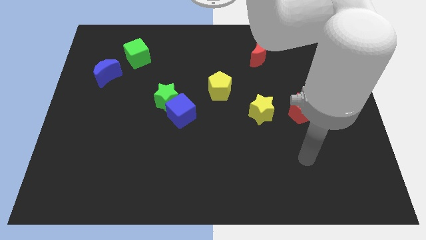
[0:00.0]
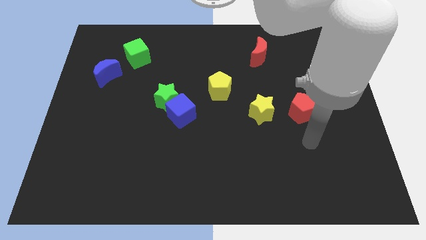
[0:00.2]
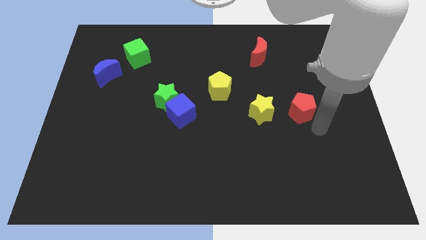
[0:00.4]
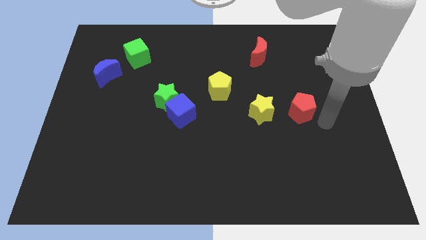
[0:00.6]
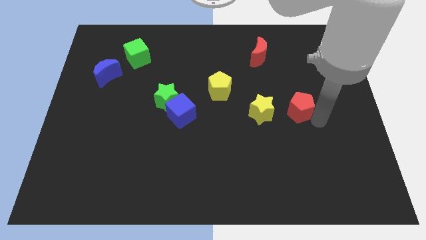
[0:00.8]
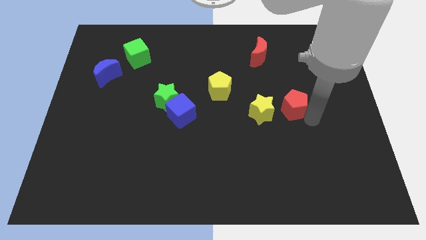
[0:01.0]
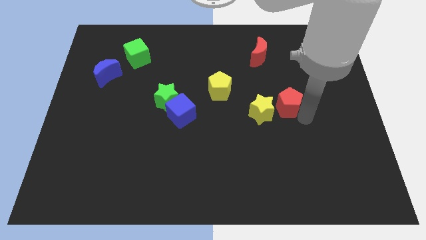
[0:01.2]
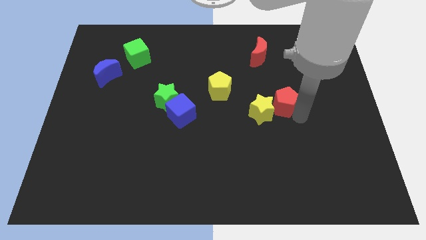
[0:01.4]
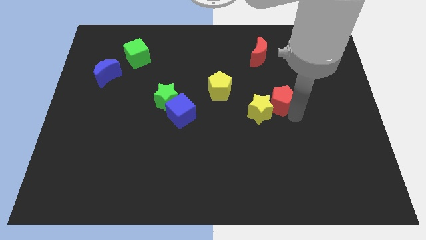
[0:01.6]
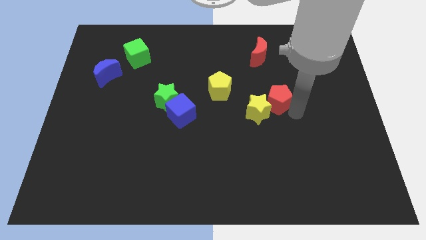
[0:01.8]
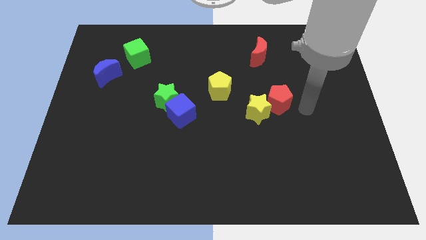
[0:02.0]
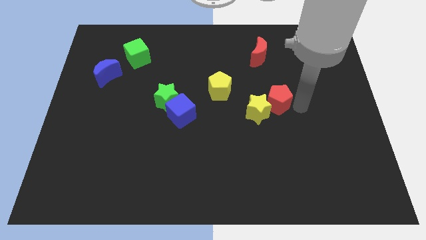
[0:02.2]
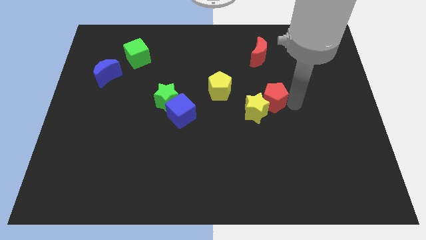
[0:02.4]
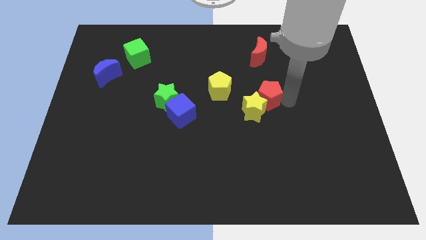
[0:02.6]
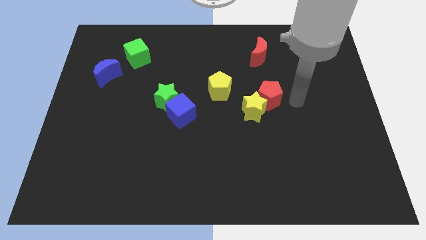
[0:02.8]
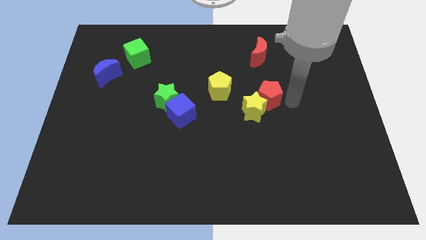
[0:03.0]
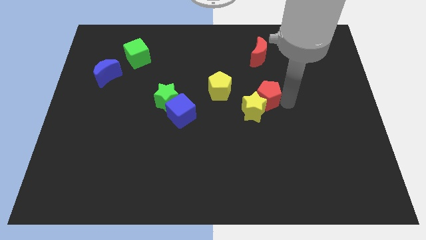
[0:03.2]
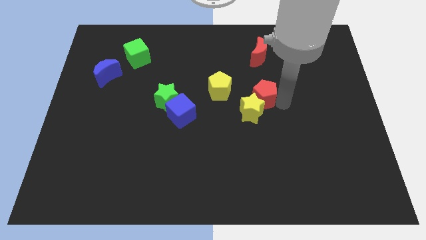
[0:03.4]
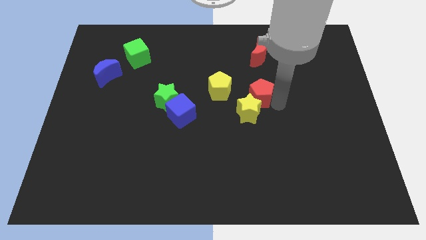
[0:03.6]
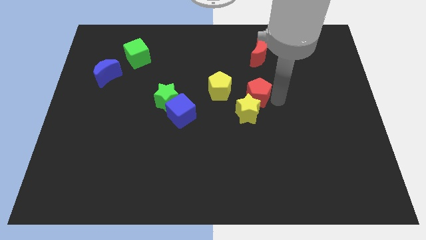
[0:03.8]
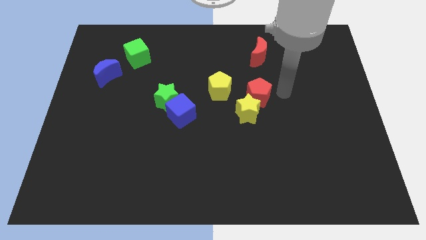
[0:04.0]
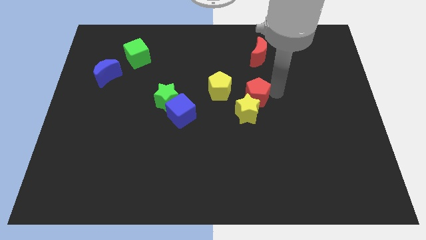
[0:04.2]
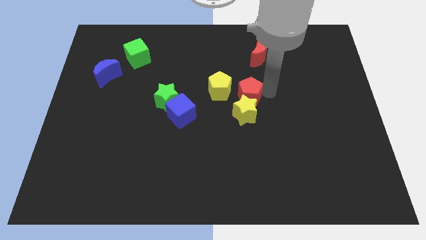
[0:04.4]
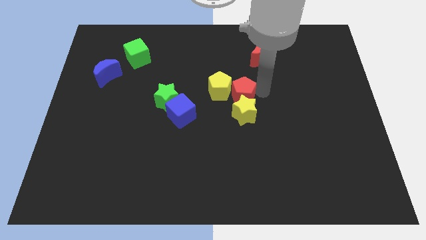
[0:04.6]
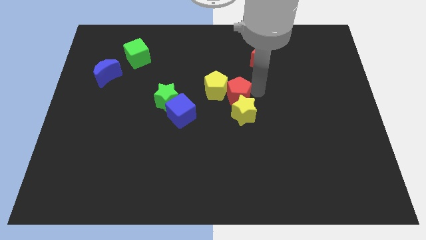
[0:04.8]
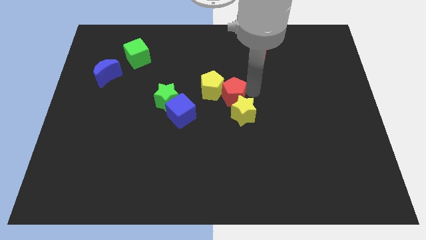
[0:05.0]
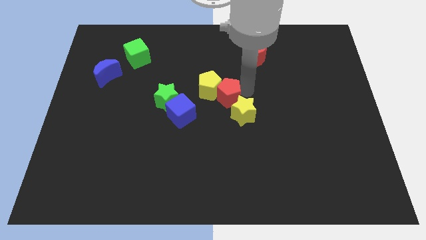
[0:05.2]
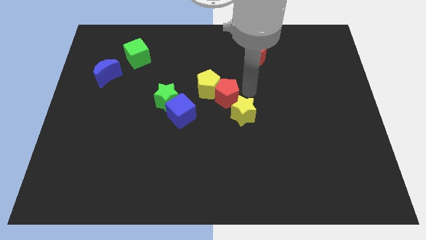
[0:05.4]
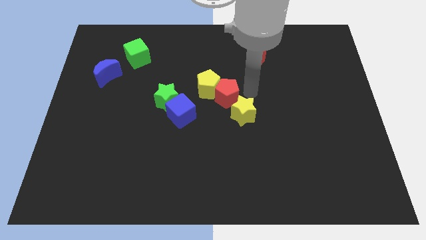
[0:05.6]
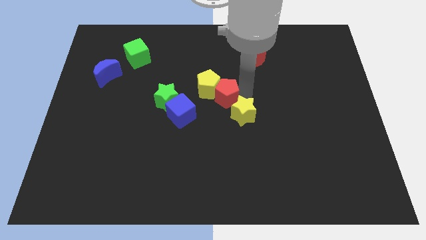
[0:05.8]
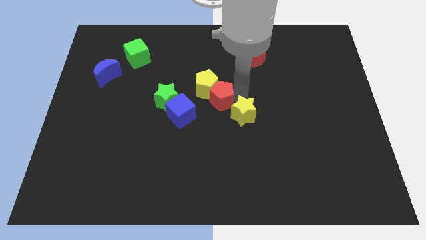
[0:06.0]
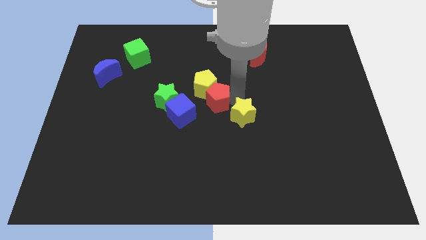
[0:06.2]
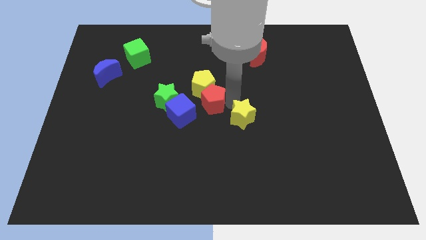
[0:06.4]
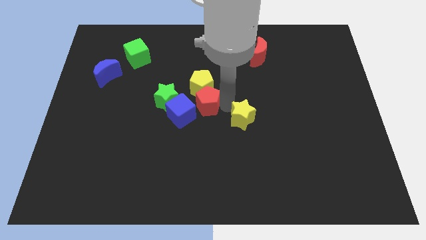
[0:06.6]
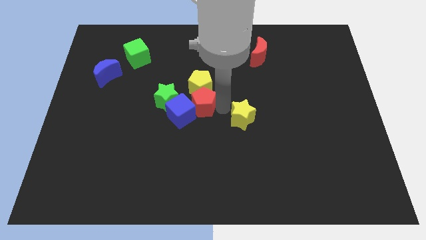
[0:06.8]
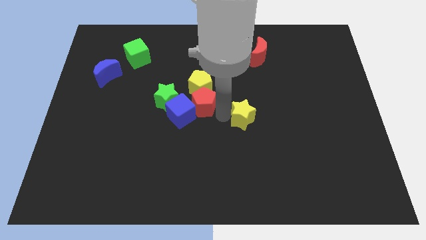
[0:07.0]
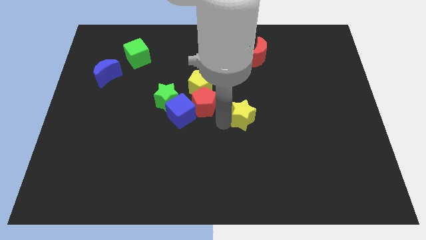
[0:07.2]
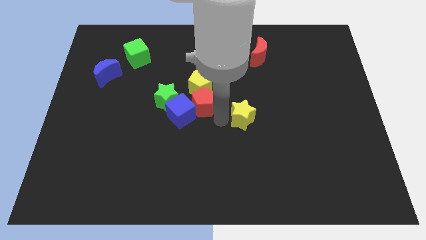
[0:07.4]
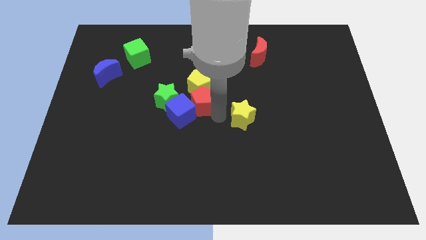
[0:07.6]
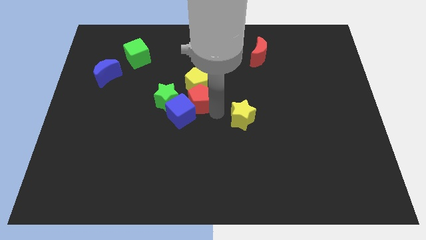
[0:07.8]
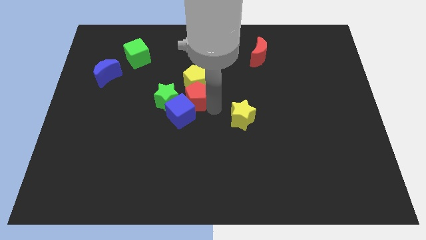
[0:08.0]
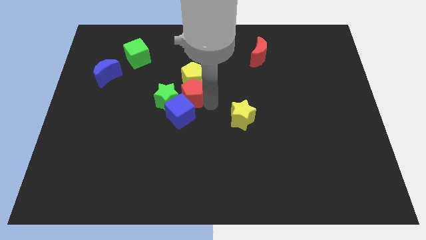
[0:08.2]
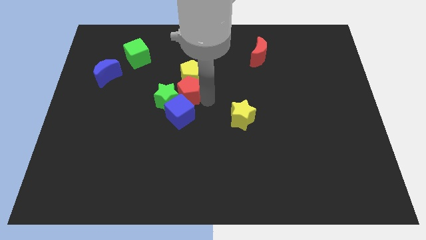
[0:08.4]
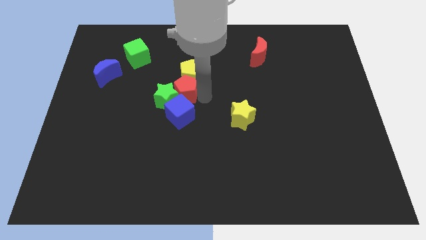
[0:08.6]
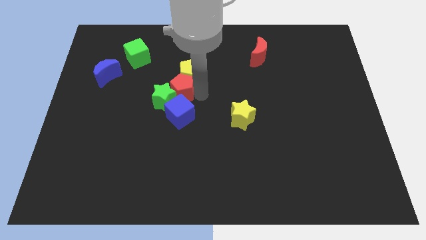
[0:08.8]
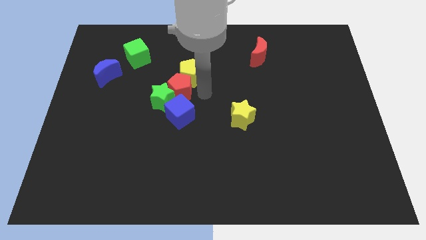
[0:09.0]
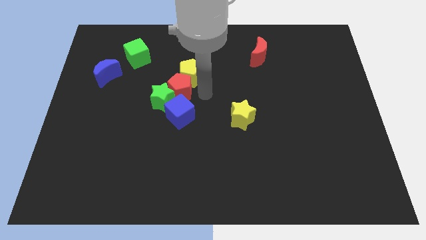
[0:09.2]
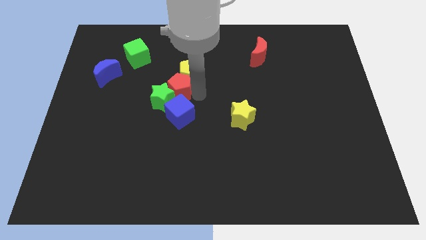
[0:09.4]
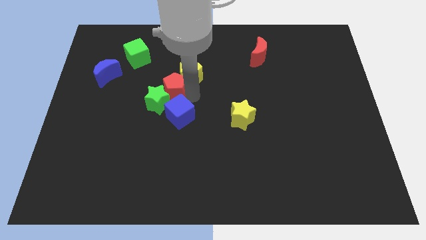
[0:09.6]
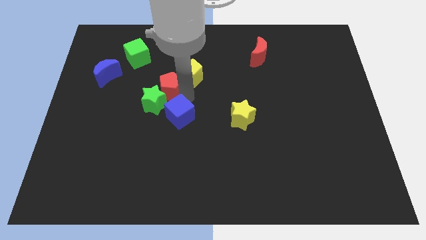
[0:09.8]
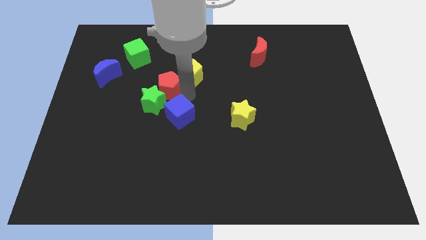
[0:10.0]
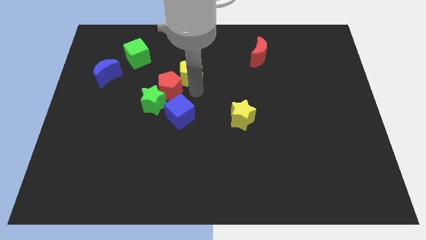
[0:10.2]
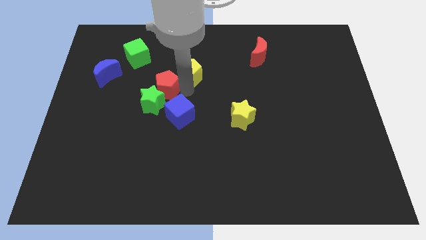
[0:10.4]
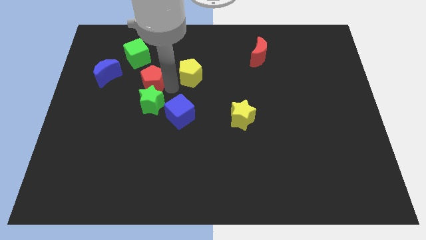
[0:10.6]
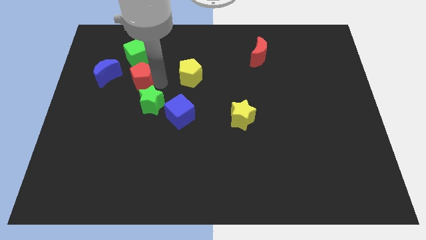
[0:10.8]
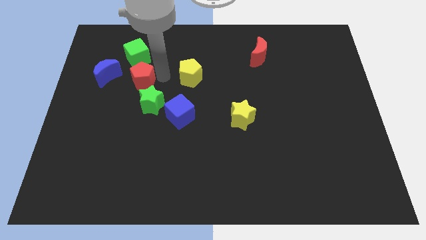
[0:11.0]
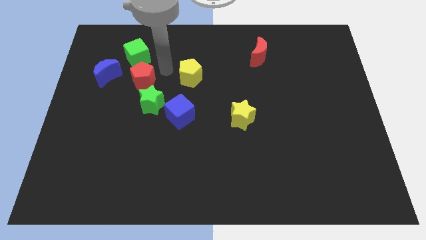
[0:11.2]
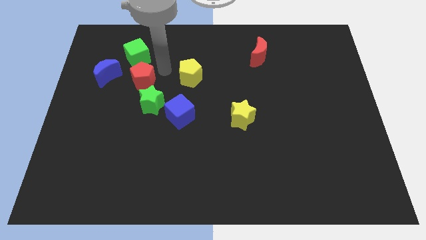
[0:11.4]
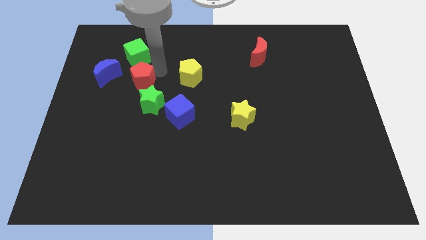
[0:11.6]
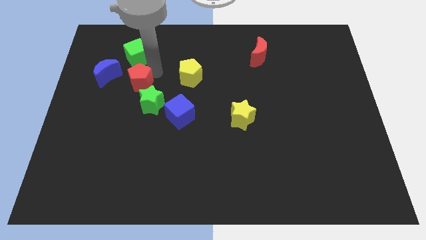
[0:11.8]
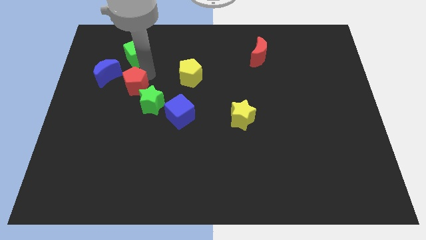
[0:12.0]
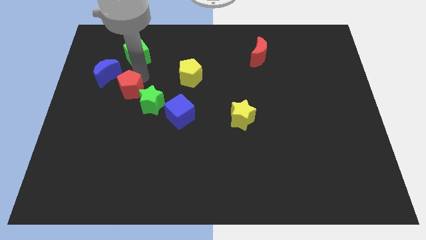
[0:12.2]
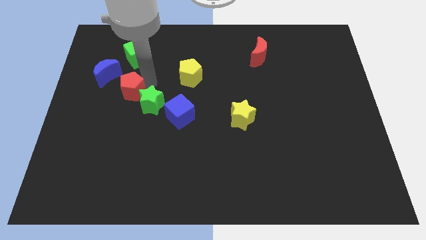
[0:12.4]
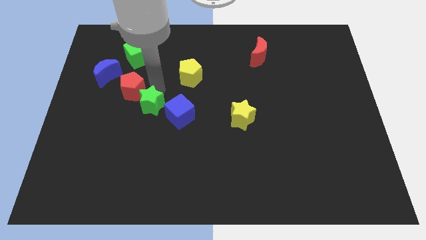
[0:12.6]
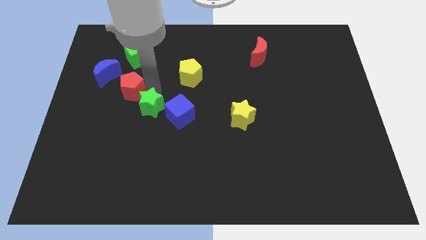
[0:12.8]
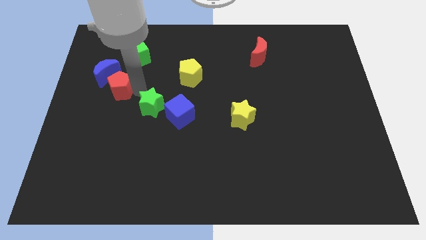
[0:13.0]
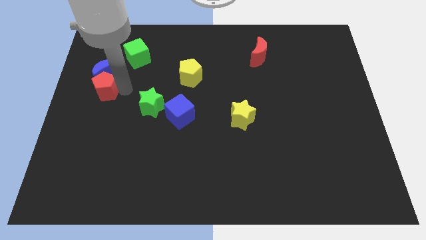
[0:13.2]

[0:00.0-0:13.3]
put the red pentagon to the left side
